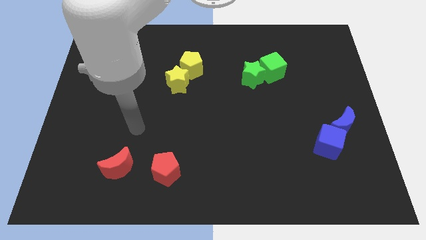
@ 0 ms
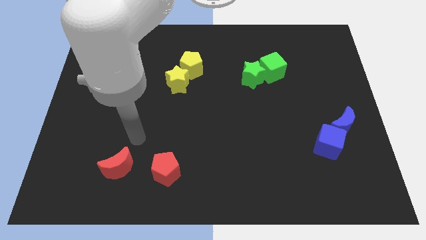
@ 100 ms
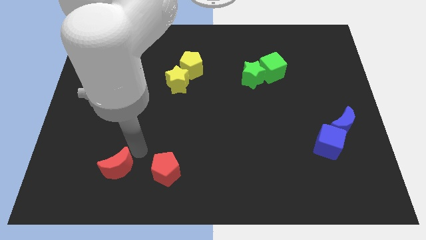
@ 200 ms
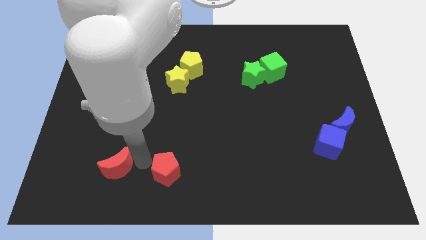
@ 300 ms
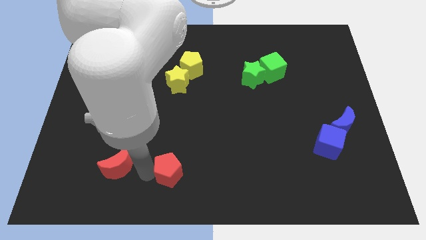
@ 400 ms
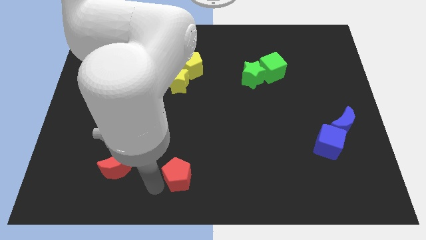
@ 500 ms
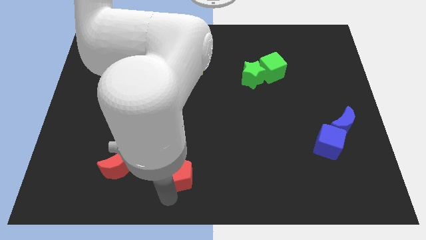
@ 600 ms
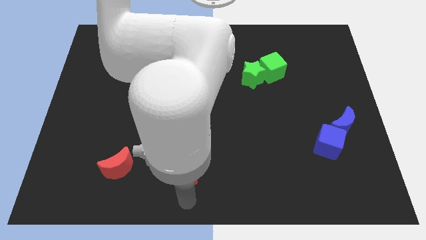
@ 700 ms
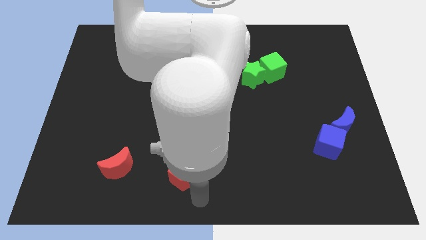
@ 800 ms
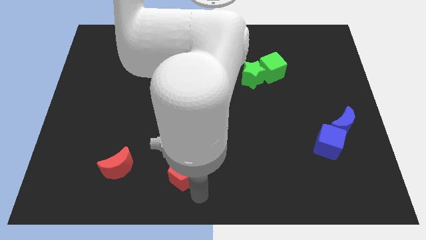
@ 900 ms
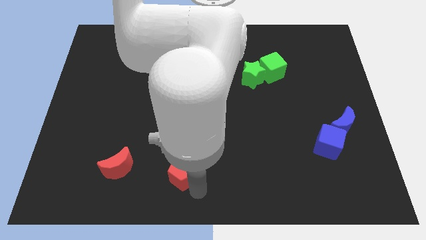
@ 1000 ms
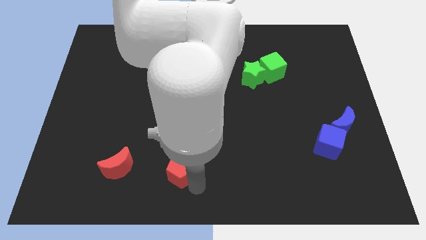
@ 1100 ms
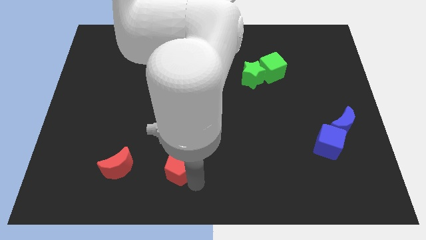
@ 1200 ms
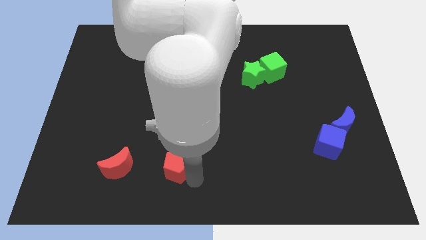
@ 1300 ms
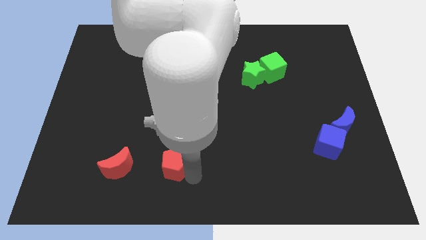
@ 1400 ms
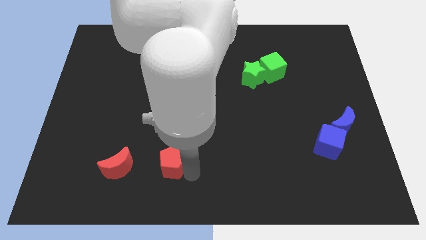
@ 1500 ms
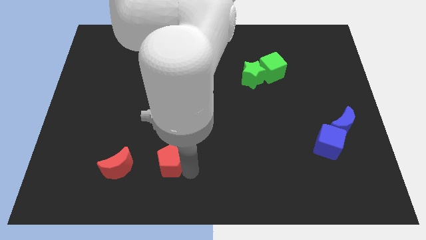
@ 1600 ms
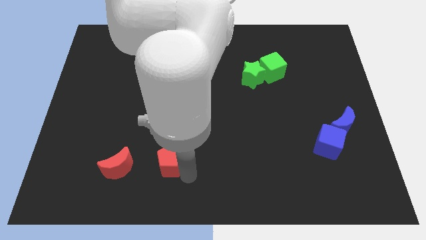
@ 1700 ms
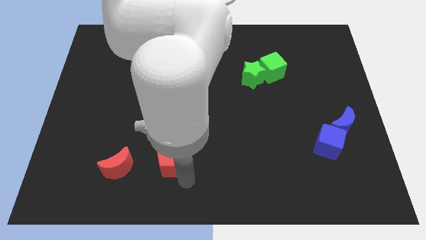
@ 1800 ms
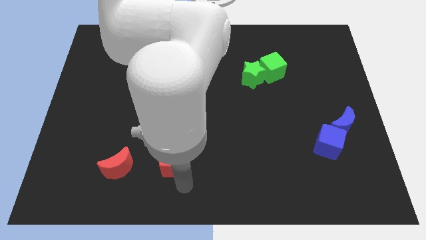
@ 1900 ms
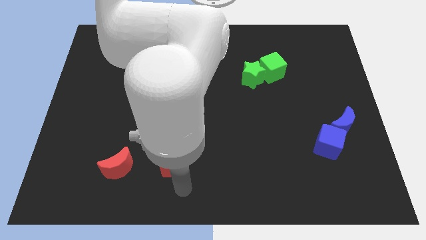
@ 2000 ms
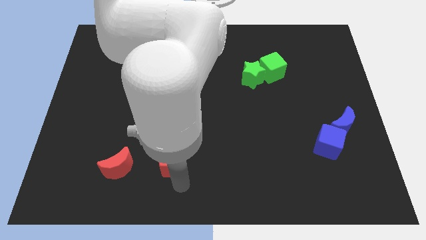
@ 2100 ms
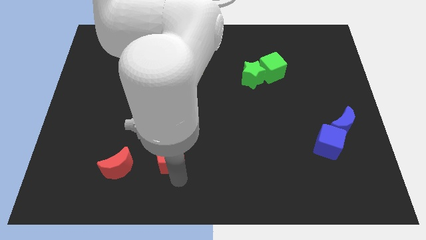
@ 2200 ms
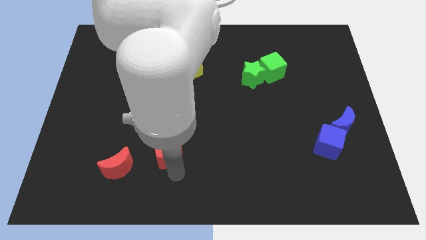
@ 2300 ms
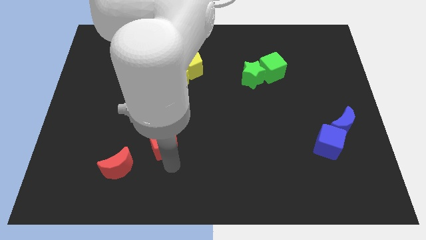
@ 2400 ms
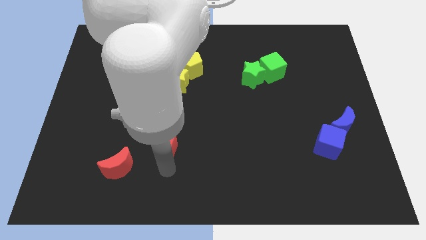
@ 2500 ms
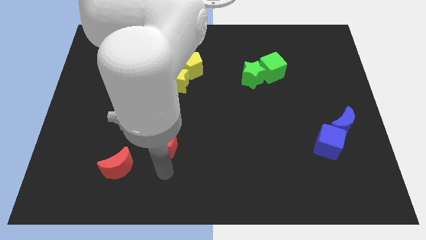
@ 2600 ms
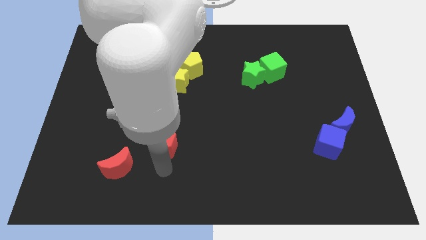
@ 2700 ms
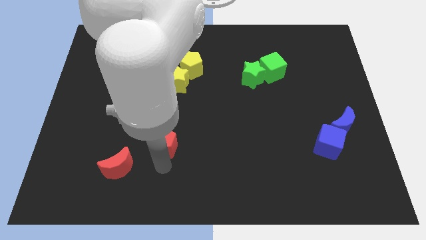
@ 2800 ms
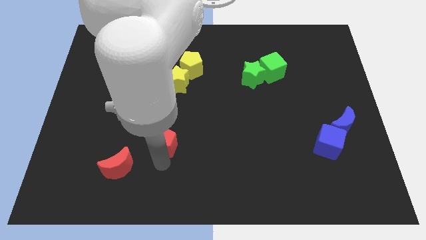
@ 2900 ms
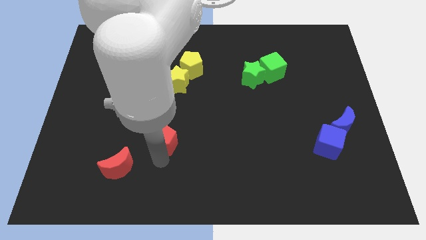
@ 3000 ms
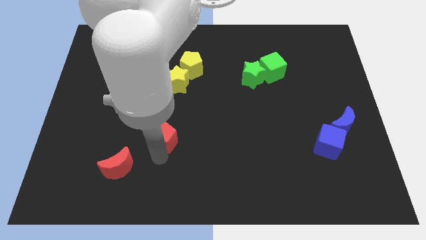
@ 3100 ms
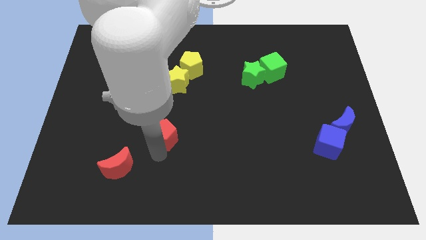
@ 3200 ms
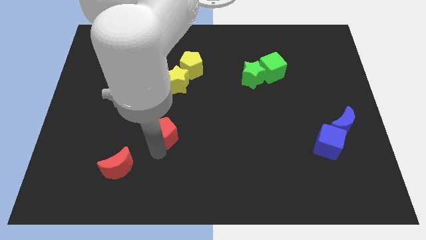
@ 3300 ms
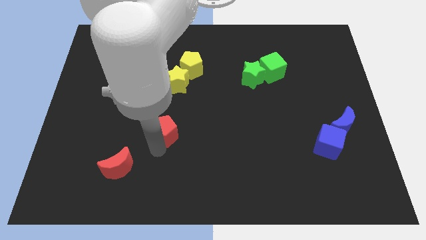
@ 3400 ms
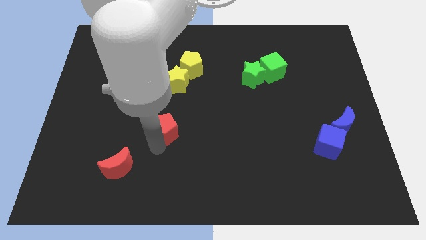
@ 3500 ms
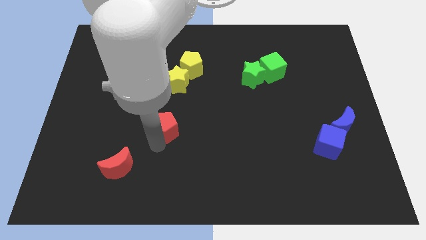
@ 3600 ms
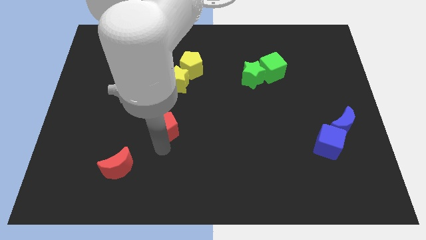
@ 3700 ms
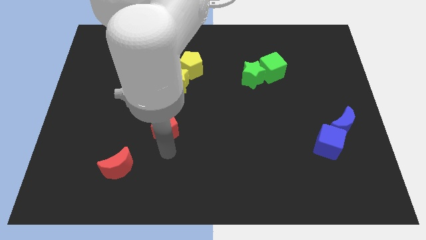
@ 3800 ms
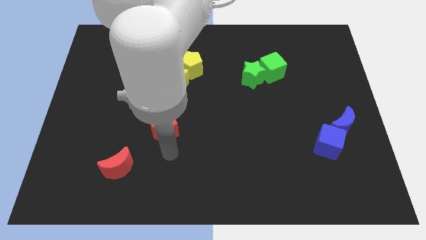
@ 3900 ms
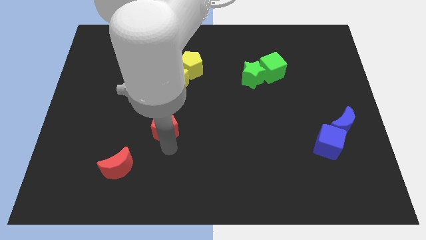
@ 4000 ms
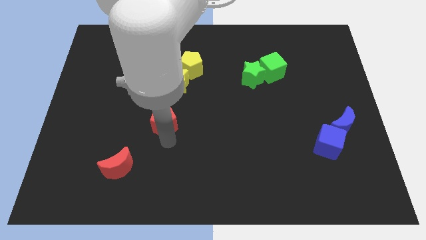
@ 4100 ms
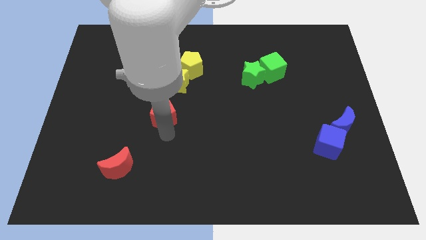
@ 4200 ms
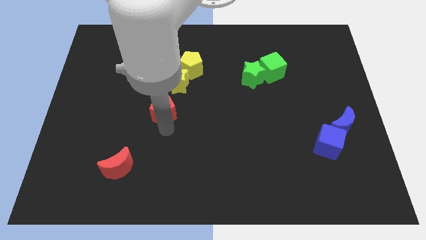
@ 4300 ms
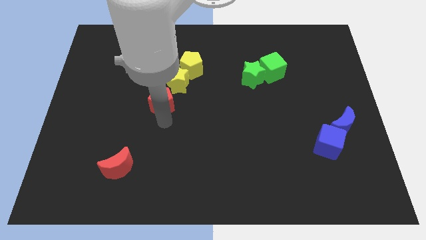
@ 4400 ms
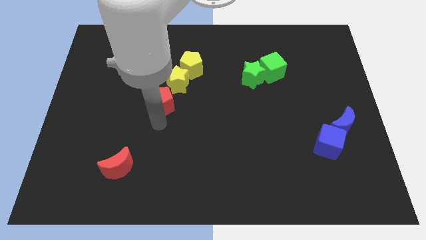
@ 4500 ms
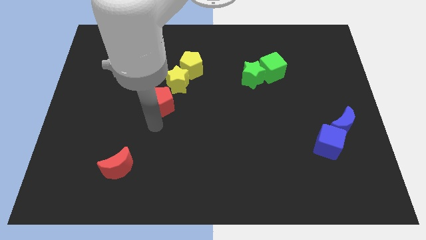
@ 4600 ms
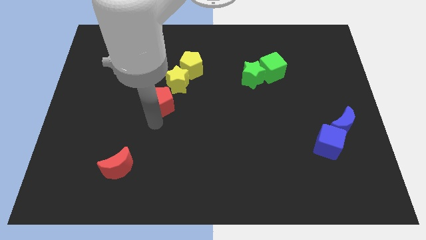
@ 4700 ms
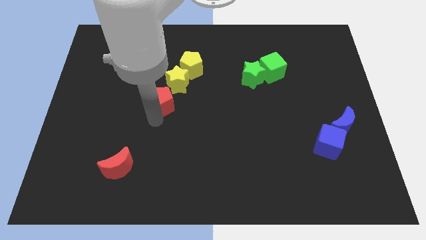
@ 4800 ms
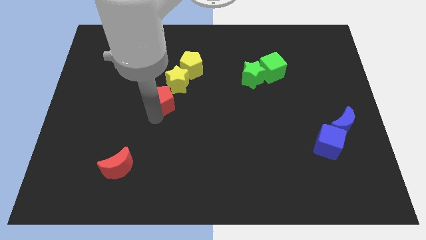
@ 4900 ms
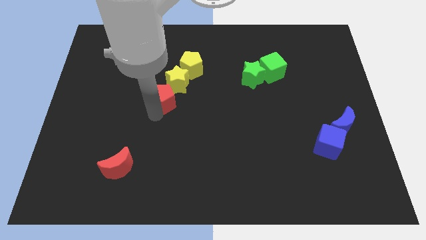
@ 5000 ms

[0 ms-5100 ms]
push the red pentagon to the bottom left of the yellow pentagon

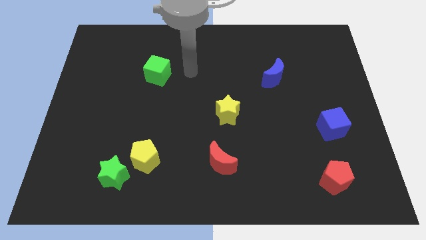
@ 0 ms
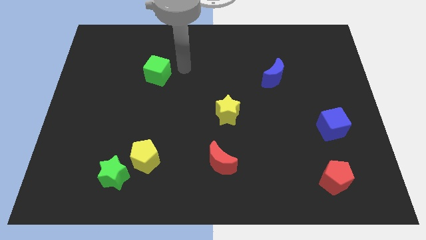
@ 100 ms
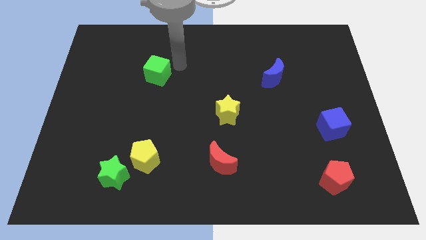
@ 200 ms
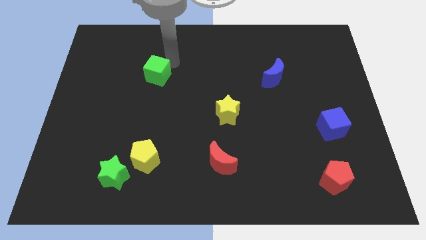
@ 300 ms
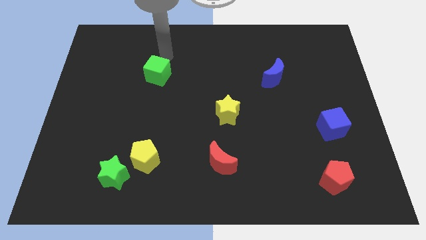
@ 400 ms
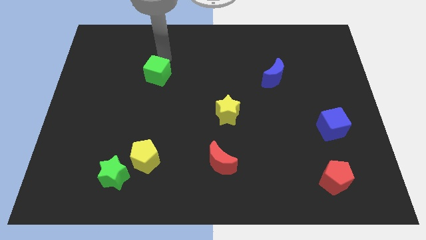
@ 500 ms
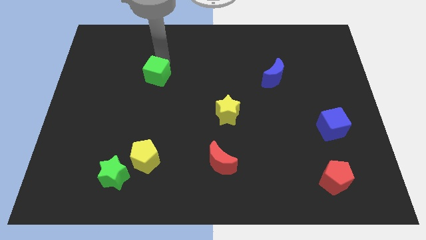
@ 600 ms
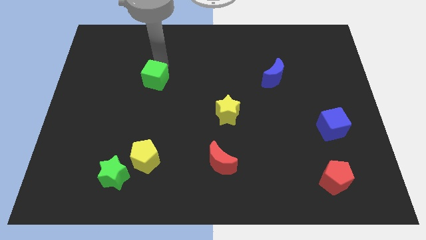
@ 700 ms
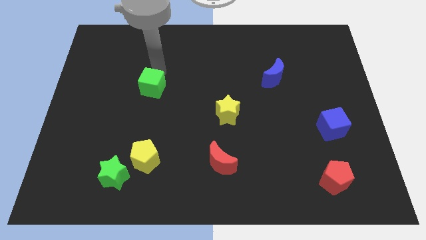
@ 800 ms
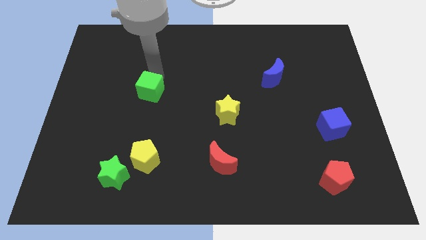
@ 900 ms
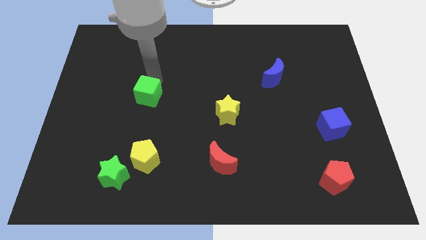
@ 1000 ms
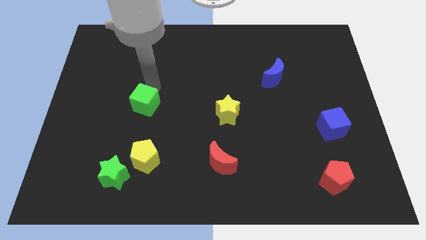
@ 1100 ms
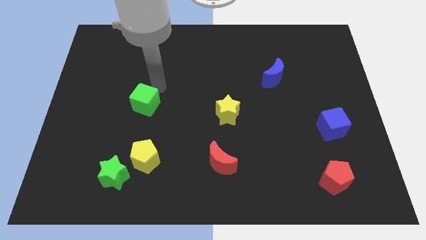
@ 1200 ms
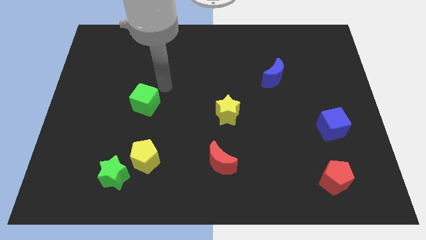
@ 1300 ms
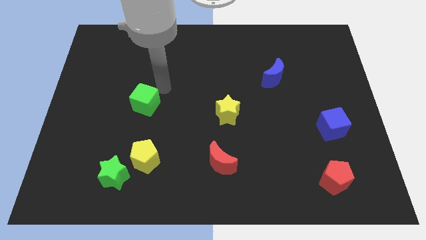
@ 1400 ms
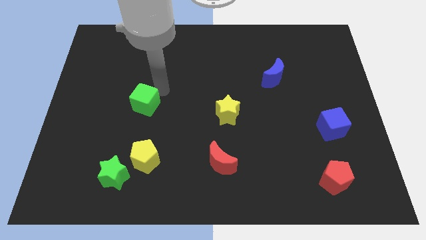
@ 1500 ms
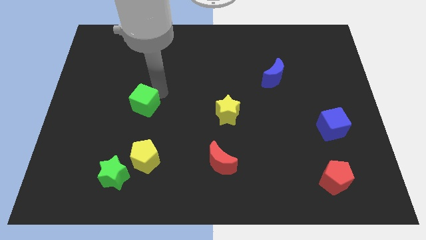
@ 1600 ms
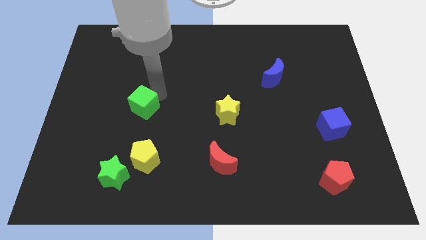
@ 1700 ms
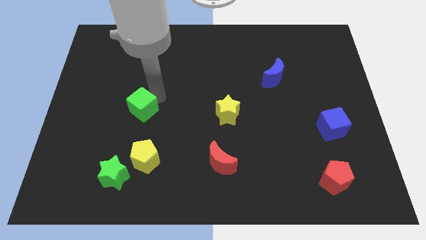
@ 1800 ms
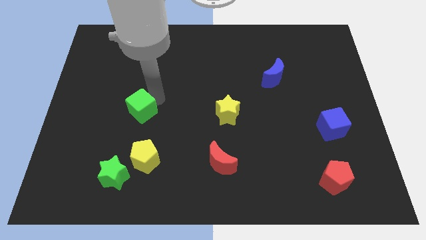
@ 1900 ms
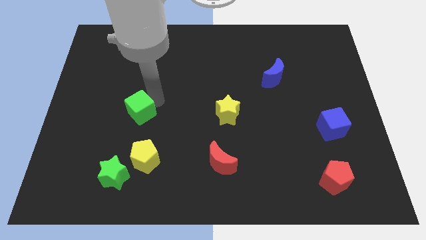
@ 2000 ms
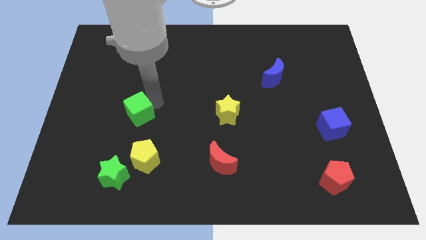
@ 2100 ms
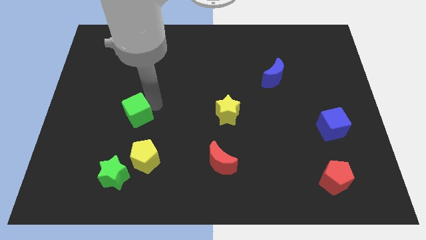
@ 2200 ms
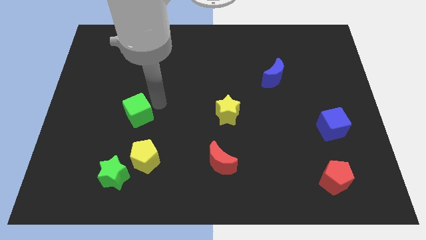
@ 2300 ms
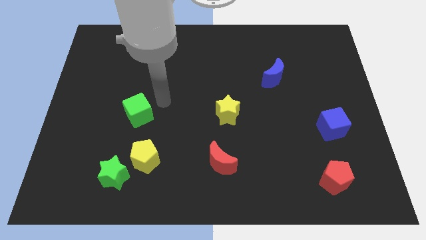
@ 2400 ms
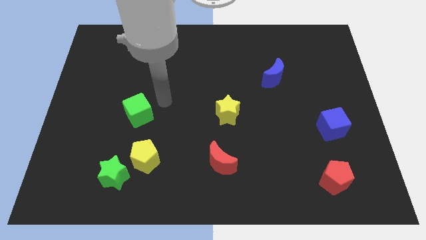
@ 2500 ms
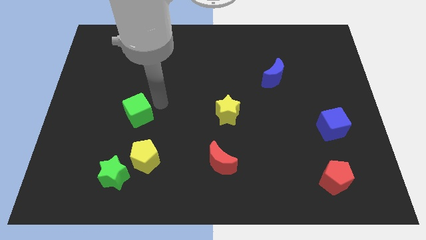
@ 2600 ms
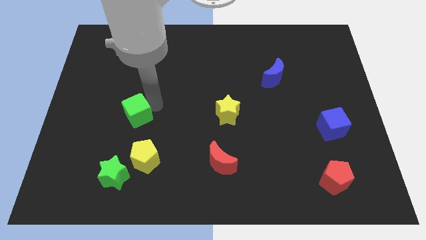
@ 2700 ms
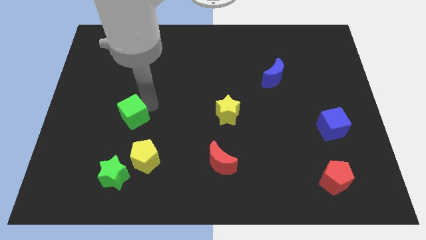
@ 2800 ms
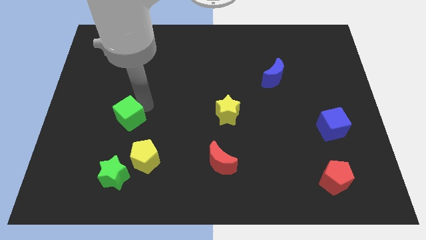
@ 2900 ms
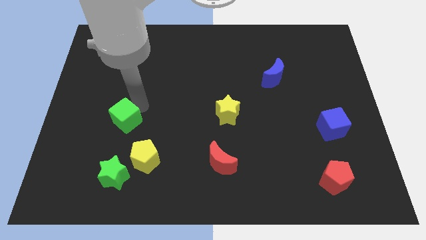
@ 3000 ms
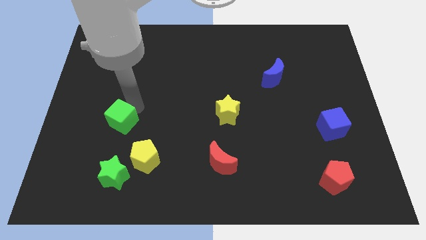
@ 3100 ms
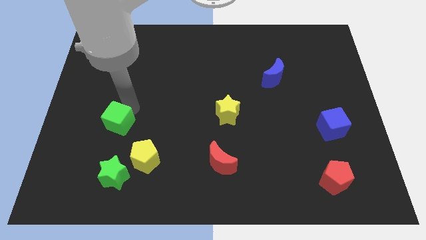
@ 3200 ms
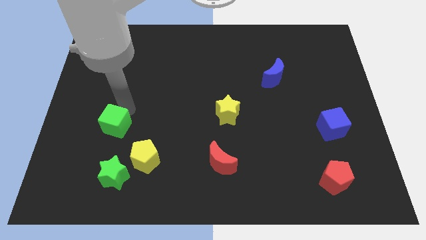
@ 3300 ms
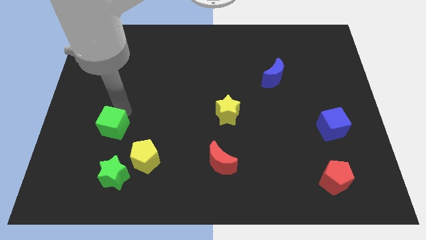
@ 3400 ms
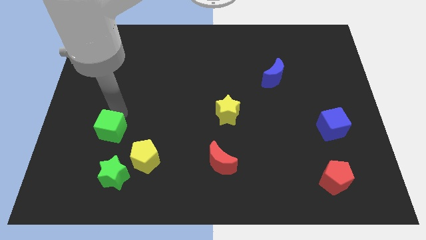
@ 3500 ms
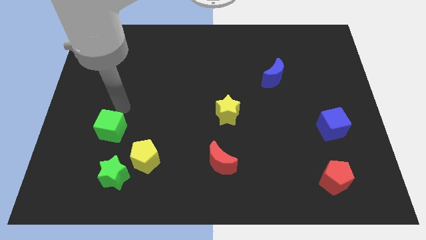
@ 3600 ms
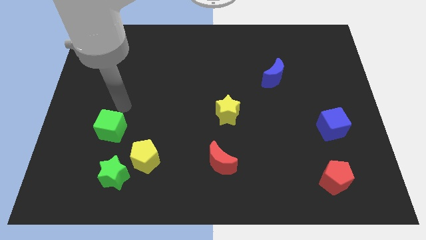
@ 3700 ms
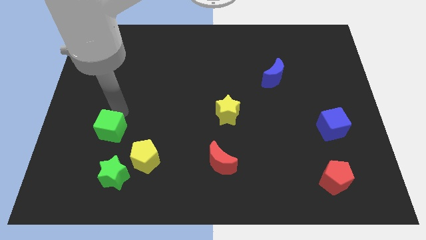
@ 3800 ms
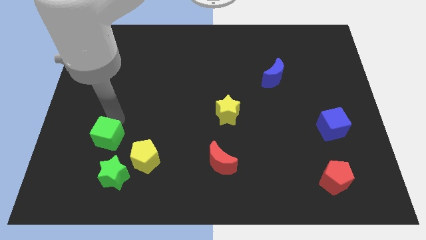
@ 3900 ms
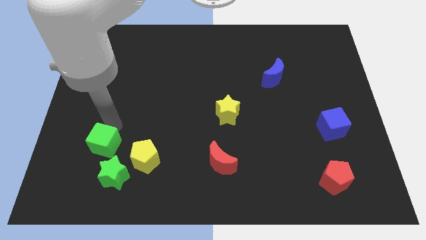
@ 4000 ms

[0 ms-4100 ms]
move the green cube to the left of the yellow pentagon
